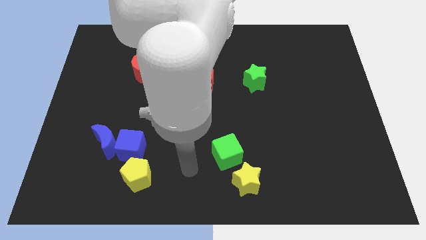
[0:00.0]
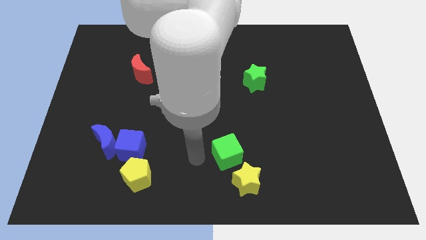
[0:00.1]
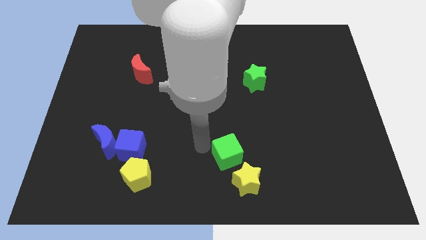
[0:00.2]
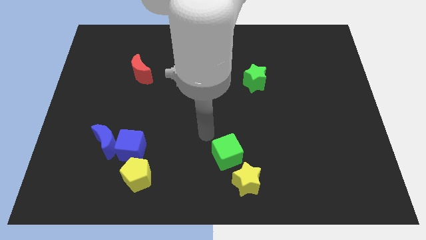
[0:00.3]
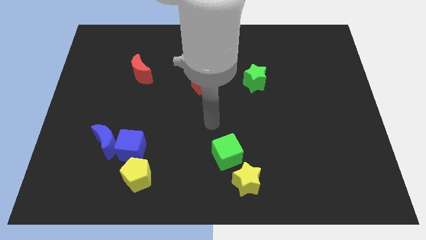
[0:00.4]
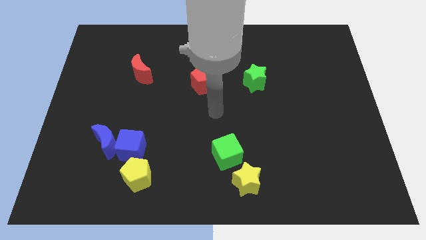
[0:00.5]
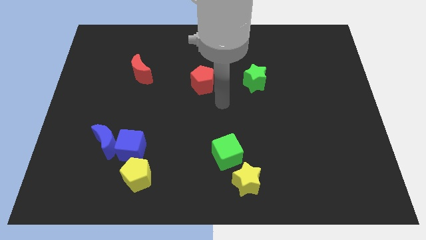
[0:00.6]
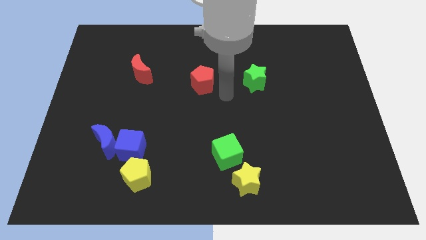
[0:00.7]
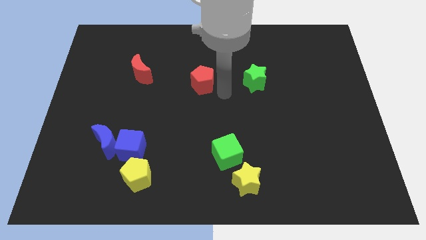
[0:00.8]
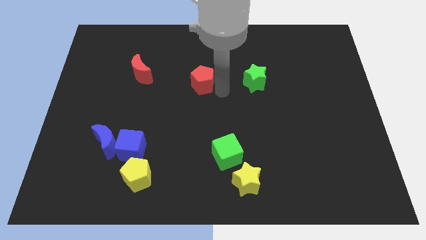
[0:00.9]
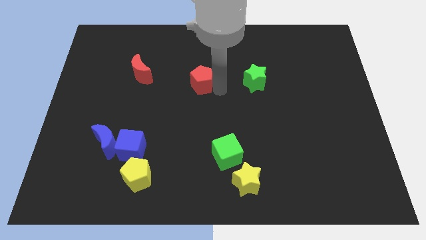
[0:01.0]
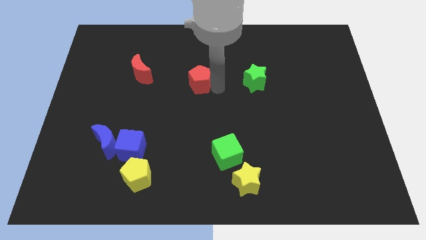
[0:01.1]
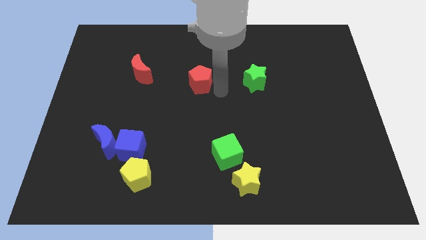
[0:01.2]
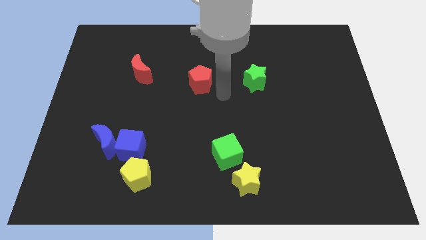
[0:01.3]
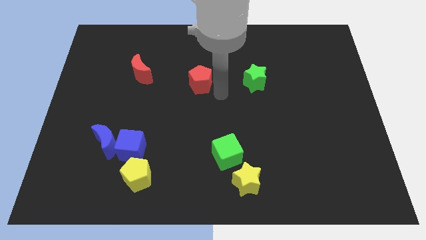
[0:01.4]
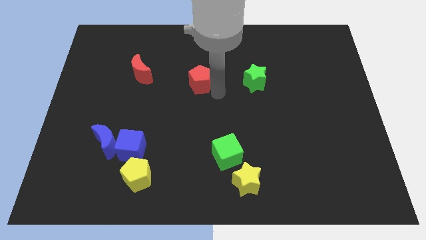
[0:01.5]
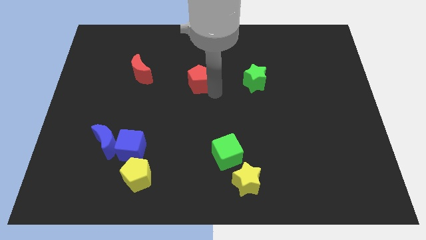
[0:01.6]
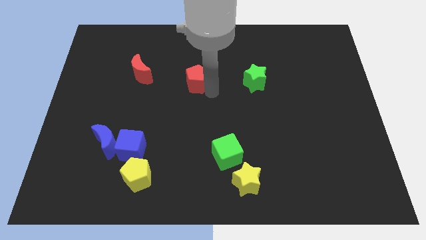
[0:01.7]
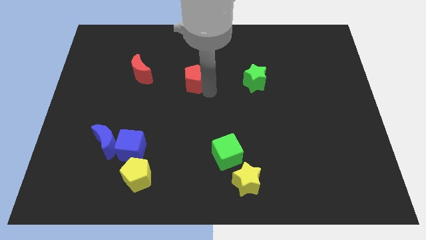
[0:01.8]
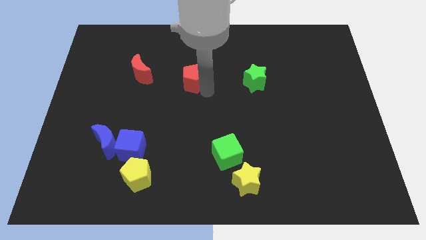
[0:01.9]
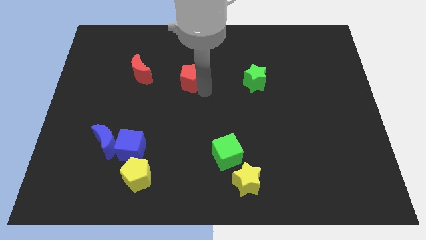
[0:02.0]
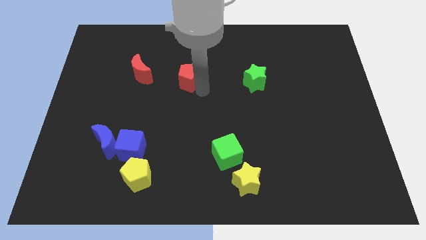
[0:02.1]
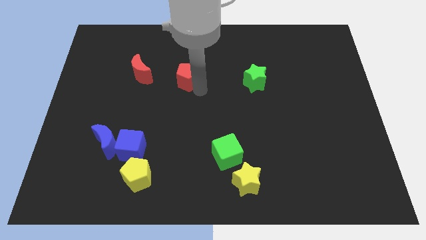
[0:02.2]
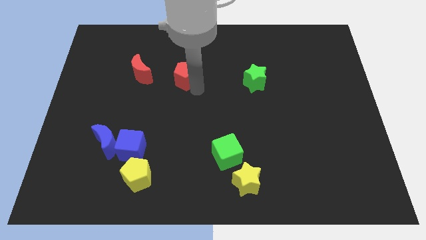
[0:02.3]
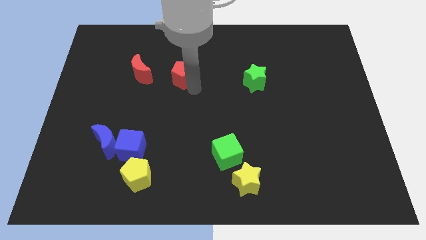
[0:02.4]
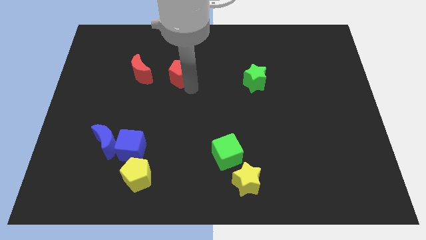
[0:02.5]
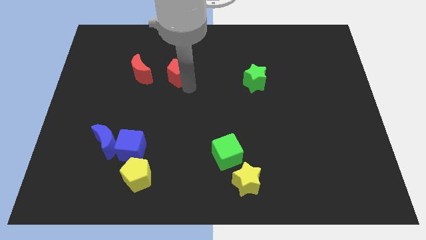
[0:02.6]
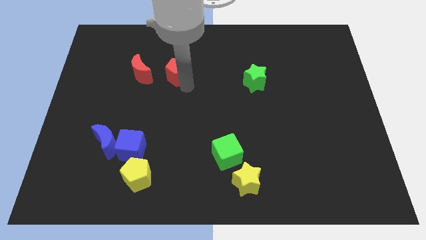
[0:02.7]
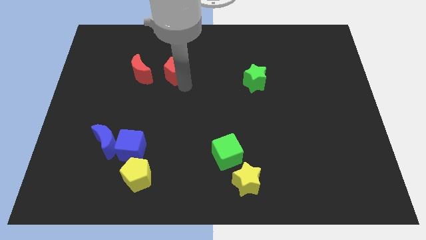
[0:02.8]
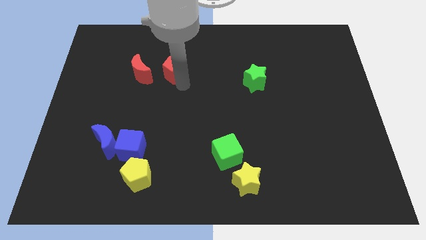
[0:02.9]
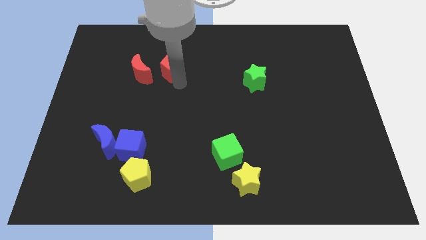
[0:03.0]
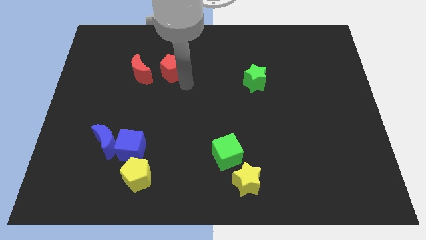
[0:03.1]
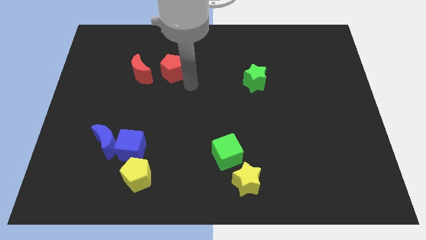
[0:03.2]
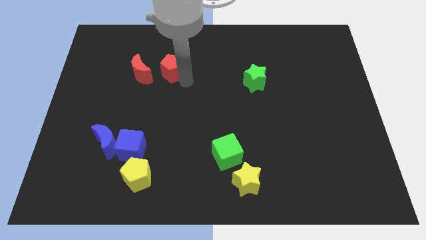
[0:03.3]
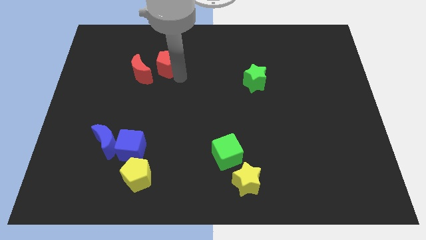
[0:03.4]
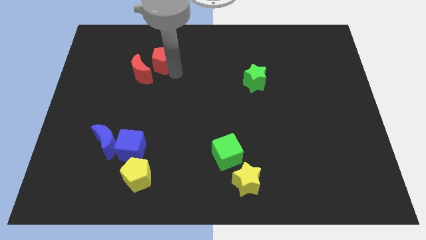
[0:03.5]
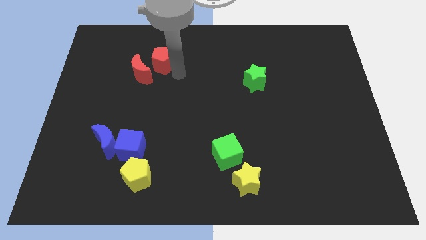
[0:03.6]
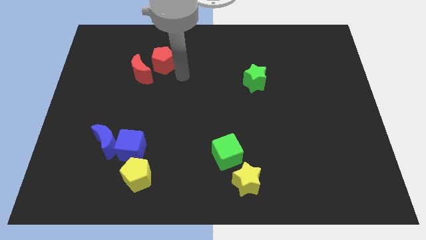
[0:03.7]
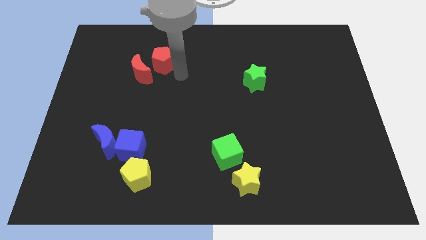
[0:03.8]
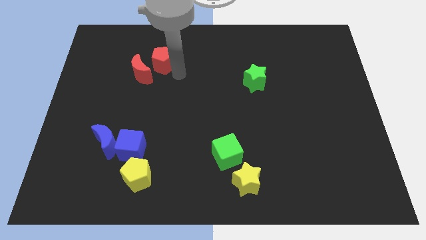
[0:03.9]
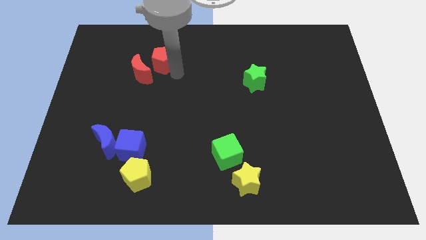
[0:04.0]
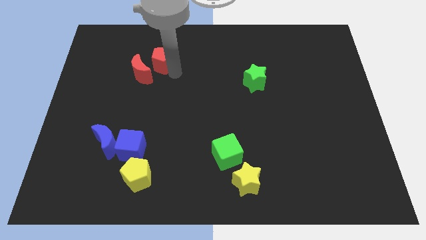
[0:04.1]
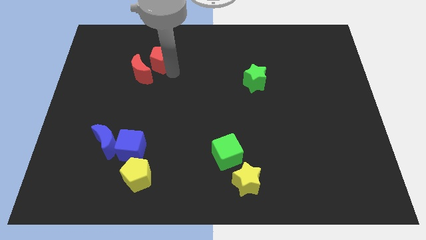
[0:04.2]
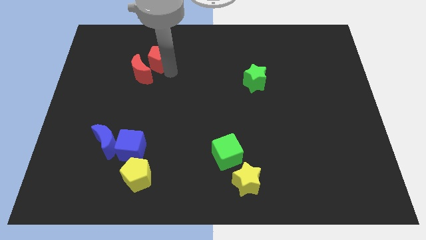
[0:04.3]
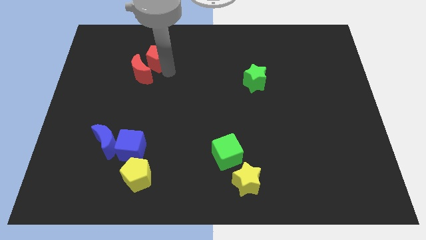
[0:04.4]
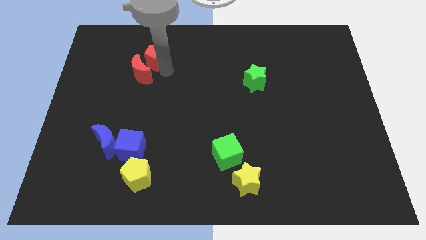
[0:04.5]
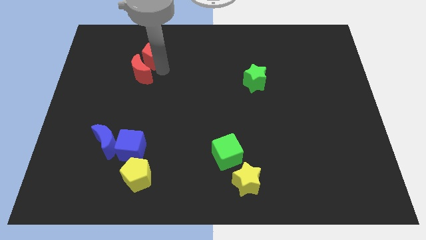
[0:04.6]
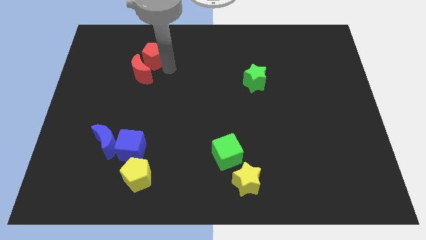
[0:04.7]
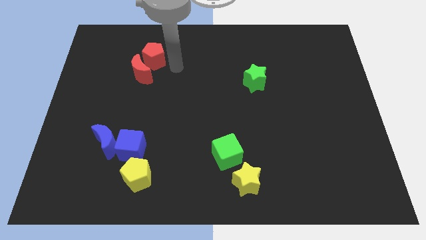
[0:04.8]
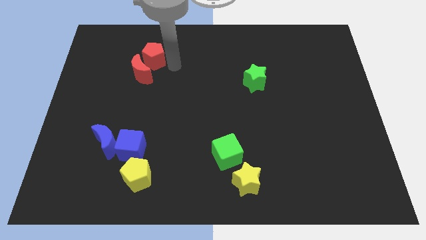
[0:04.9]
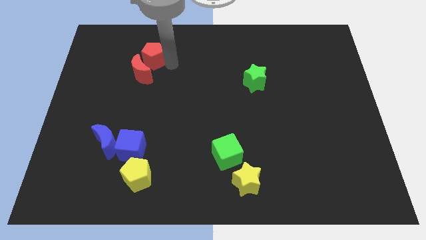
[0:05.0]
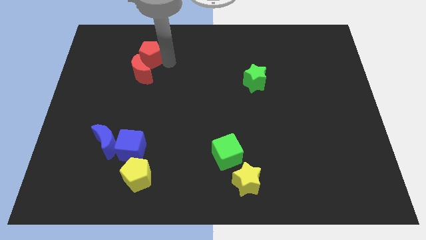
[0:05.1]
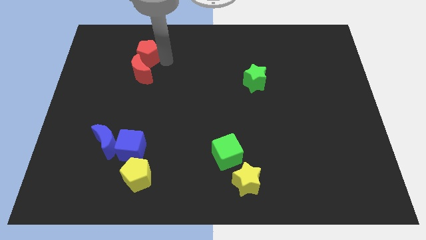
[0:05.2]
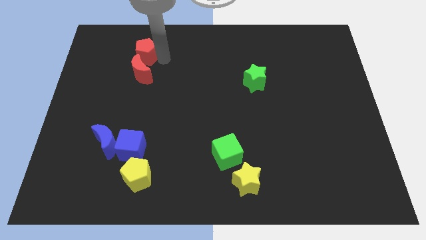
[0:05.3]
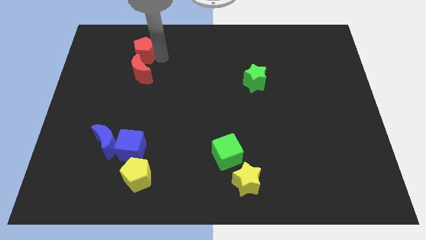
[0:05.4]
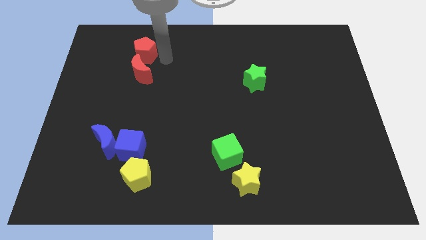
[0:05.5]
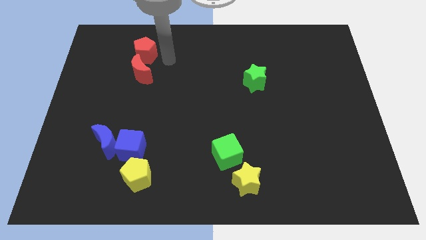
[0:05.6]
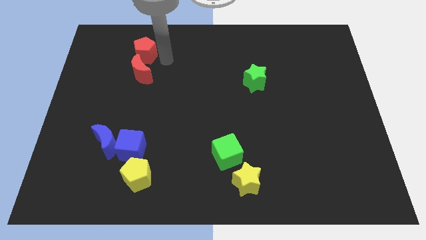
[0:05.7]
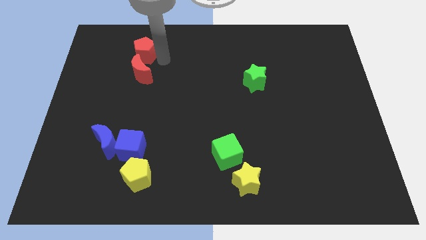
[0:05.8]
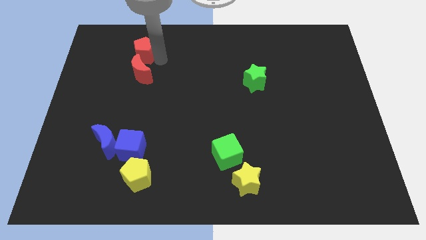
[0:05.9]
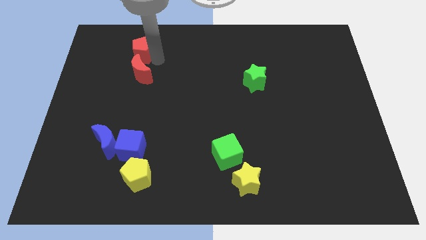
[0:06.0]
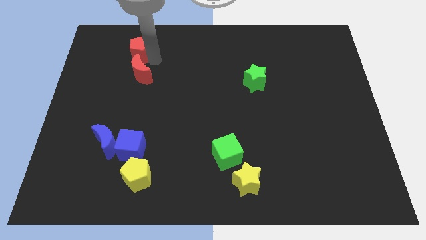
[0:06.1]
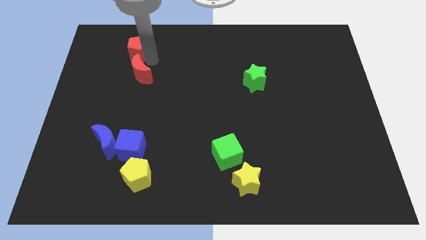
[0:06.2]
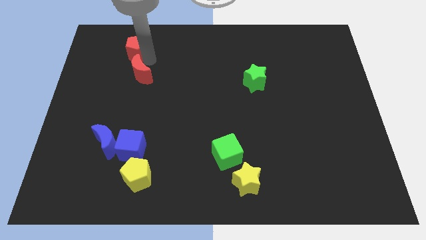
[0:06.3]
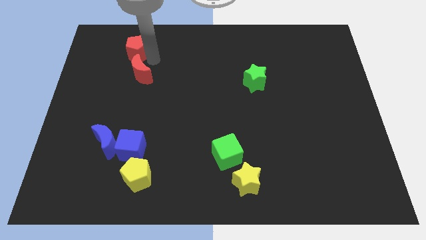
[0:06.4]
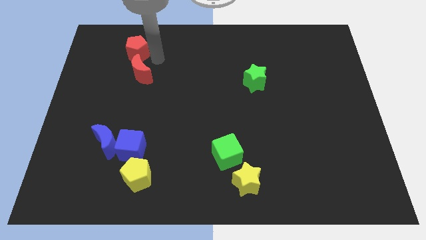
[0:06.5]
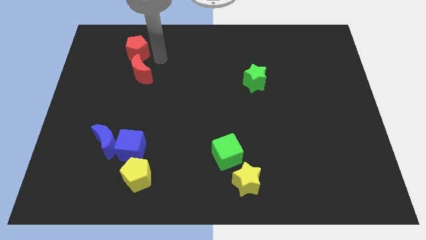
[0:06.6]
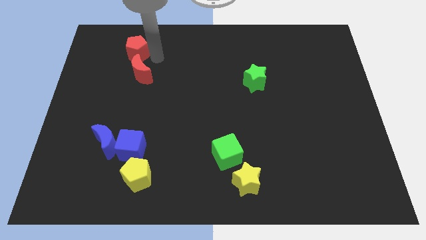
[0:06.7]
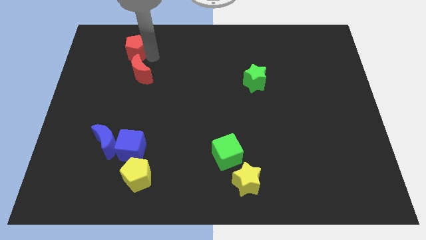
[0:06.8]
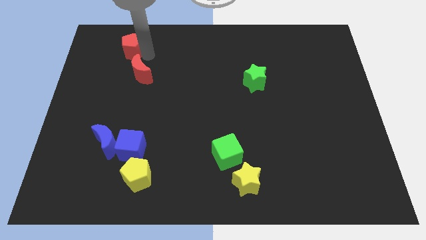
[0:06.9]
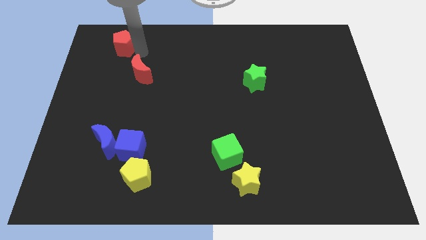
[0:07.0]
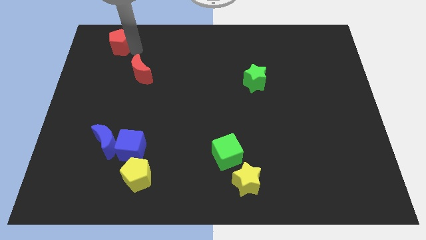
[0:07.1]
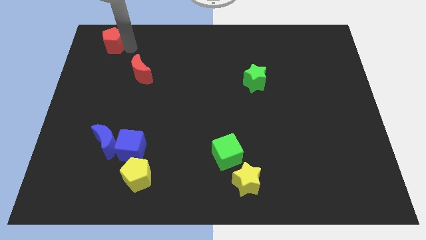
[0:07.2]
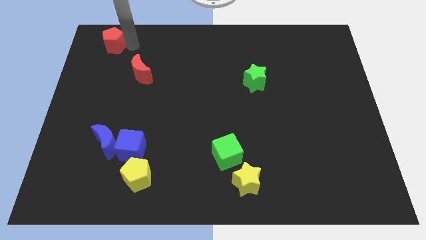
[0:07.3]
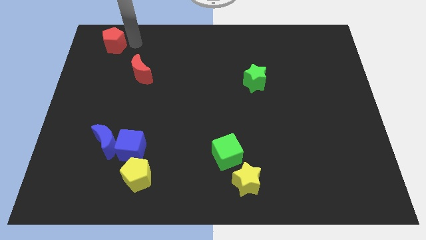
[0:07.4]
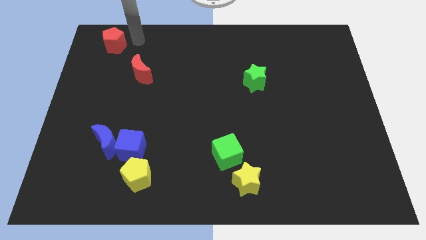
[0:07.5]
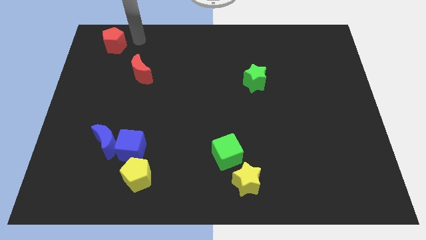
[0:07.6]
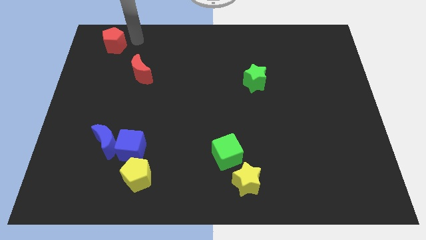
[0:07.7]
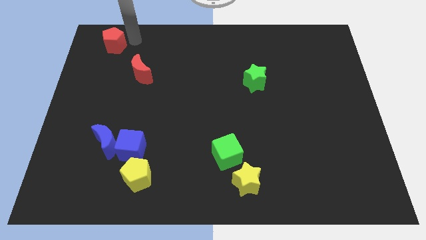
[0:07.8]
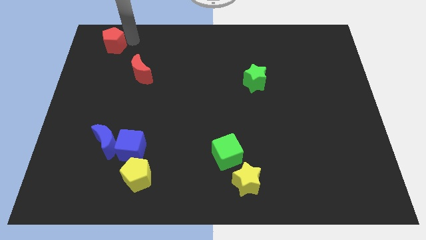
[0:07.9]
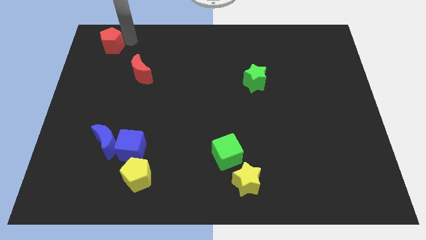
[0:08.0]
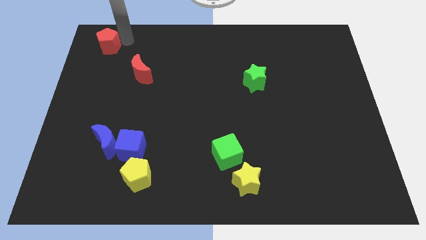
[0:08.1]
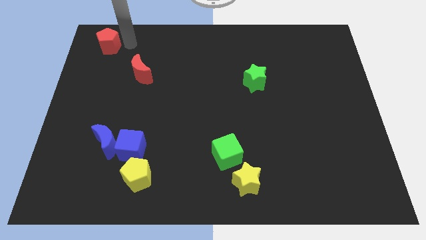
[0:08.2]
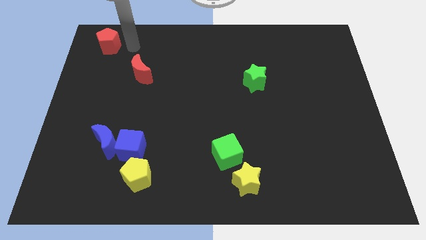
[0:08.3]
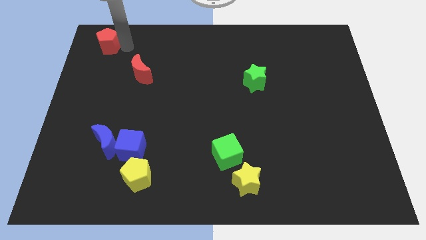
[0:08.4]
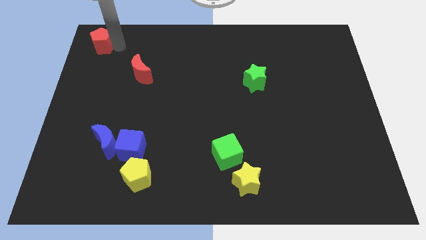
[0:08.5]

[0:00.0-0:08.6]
move the red pentagon to the top left of the board
